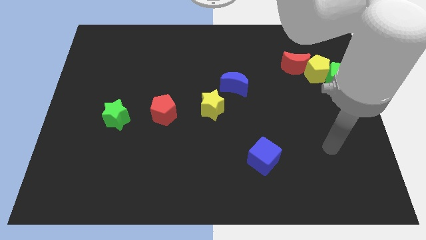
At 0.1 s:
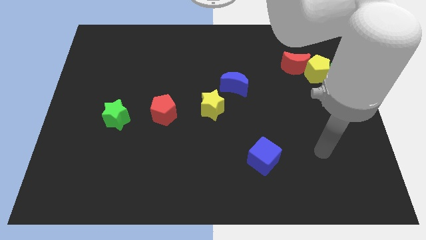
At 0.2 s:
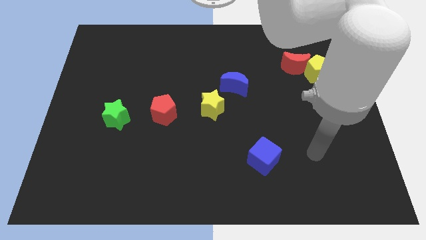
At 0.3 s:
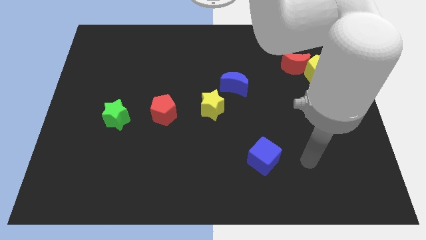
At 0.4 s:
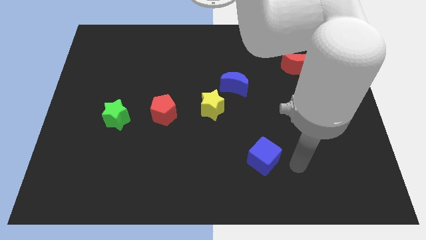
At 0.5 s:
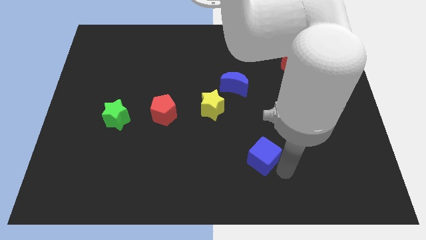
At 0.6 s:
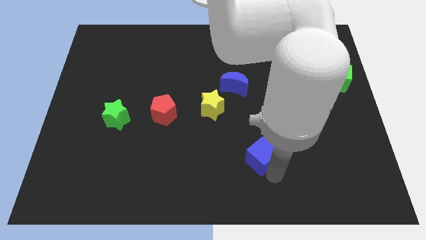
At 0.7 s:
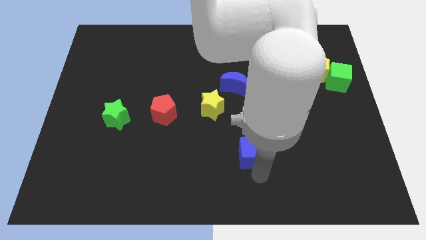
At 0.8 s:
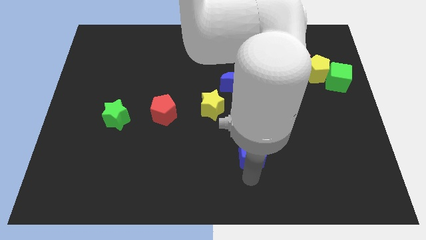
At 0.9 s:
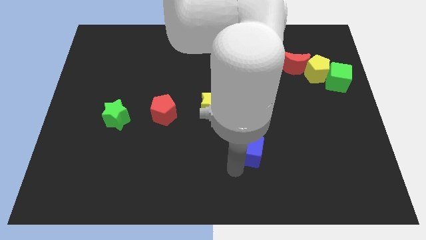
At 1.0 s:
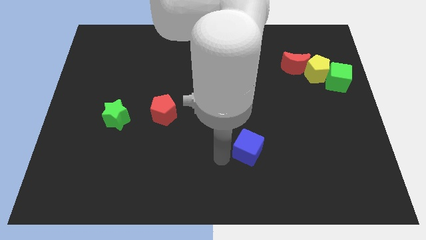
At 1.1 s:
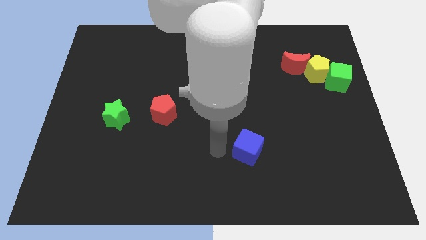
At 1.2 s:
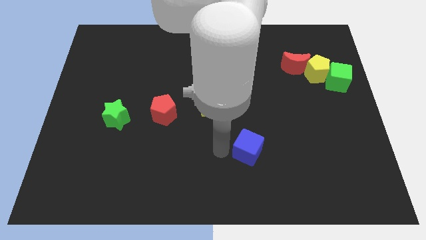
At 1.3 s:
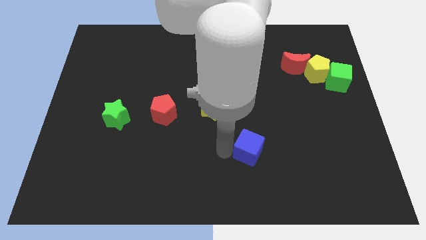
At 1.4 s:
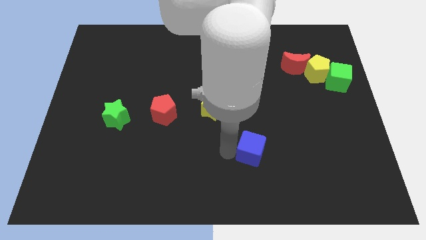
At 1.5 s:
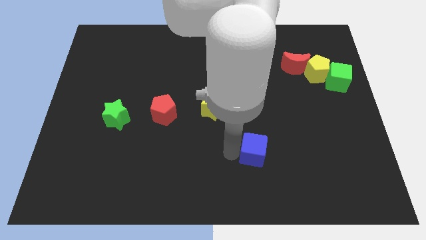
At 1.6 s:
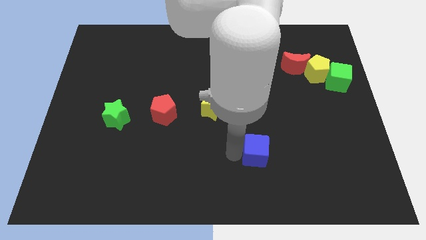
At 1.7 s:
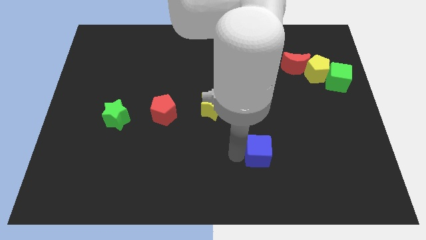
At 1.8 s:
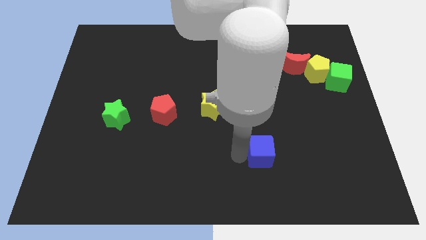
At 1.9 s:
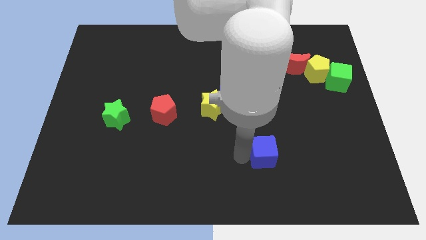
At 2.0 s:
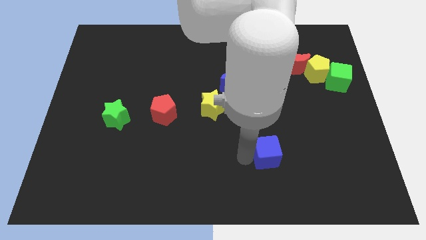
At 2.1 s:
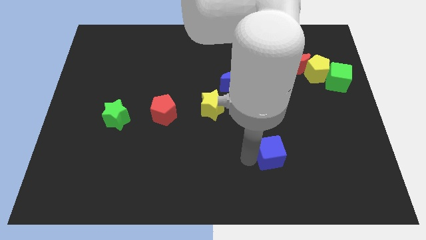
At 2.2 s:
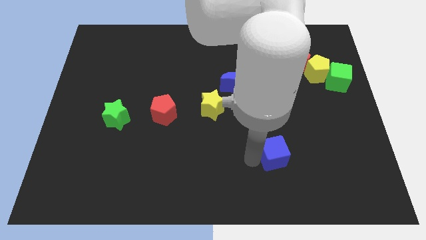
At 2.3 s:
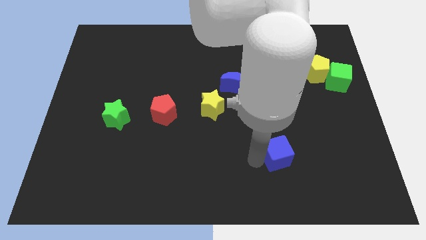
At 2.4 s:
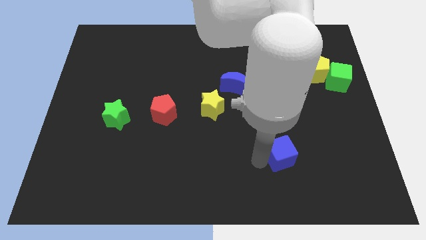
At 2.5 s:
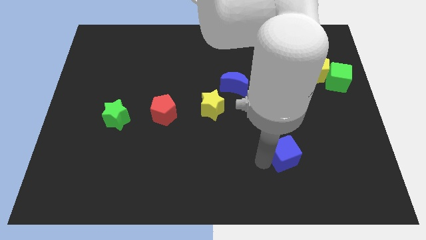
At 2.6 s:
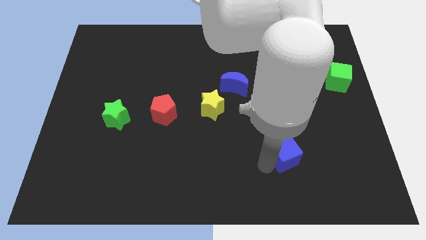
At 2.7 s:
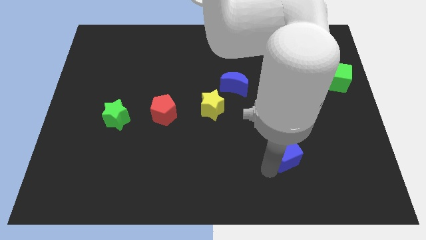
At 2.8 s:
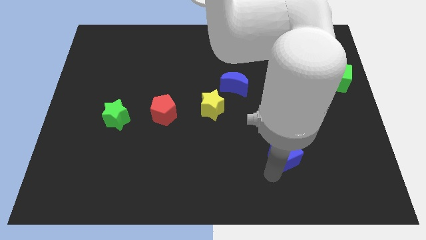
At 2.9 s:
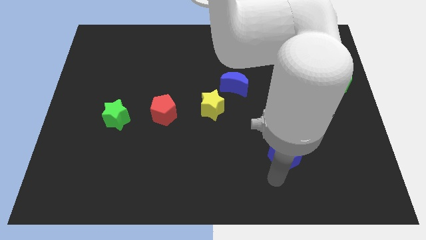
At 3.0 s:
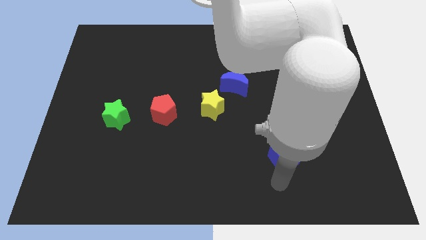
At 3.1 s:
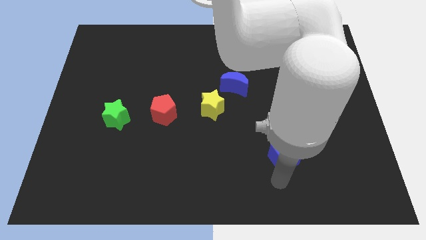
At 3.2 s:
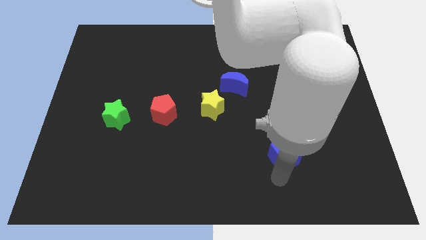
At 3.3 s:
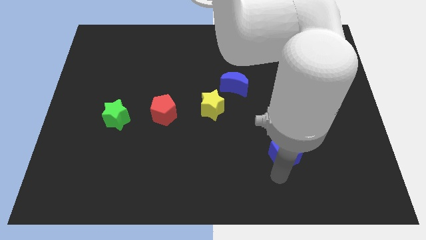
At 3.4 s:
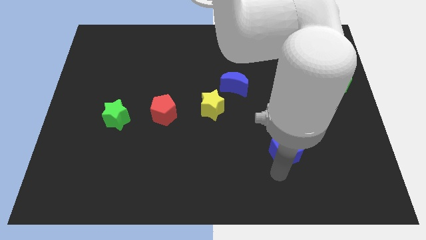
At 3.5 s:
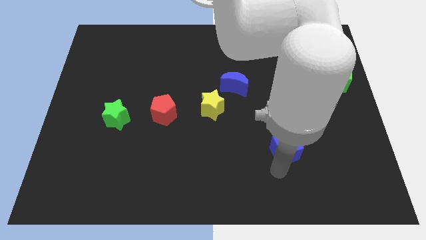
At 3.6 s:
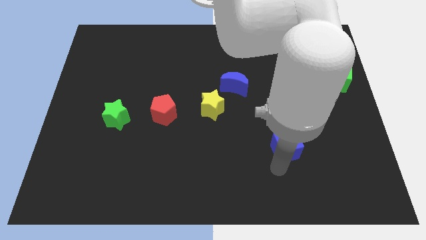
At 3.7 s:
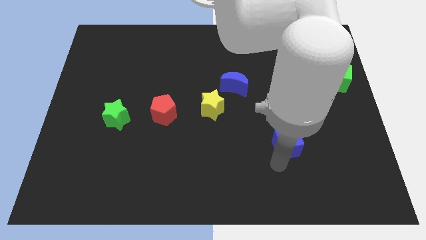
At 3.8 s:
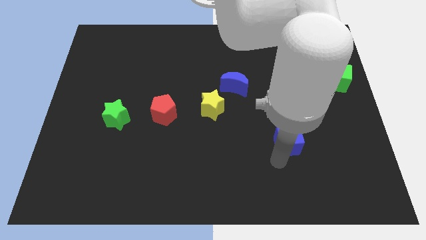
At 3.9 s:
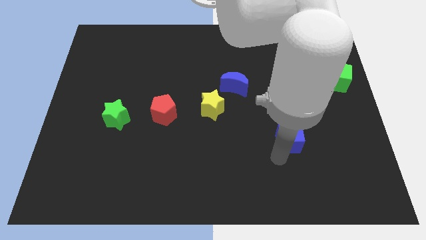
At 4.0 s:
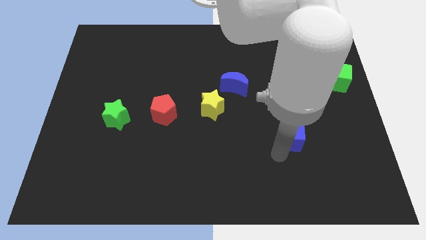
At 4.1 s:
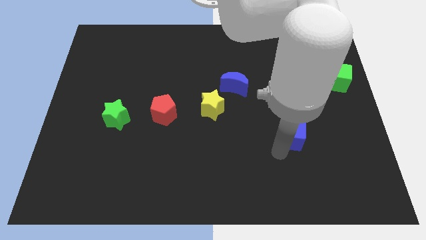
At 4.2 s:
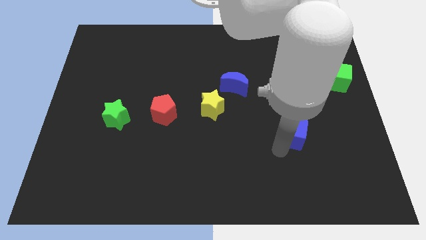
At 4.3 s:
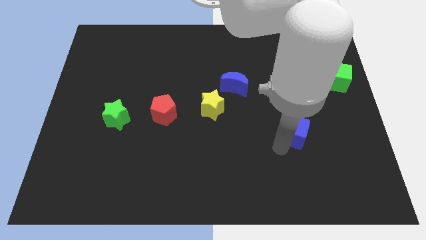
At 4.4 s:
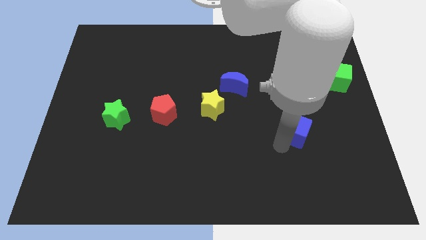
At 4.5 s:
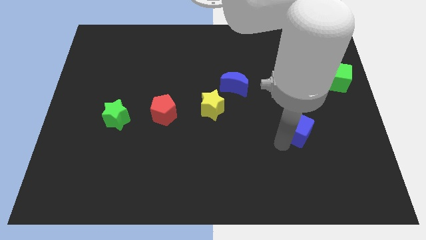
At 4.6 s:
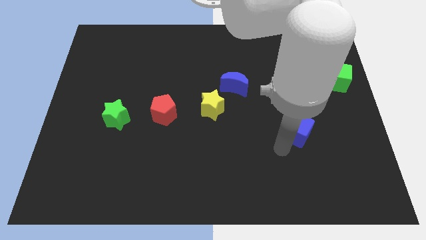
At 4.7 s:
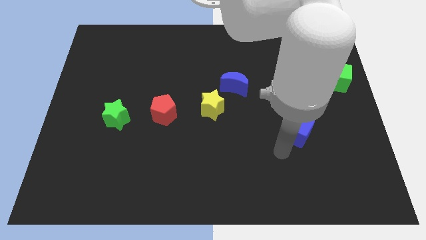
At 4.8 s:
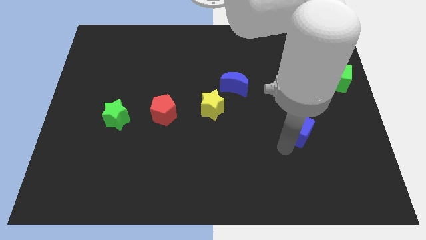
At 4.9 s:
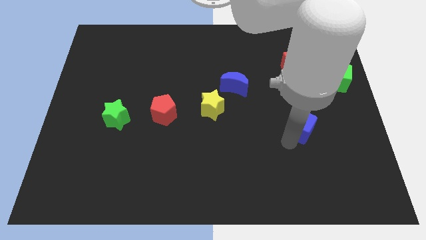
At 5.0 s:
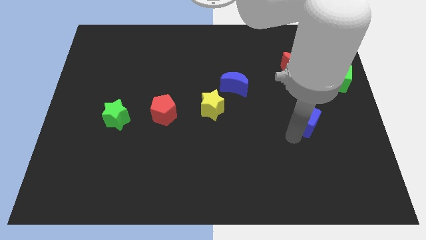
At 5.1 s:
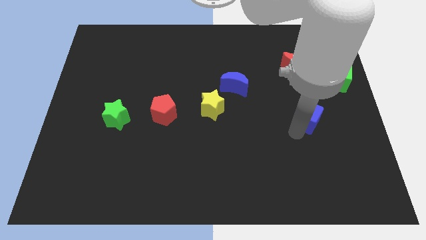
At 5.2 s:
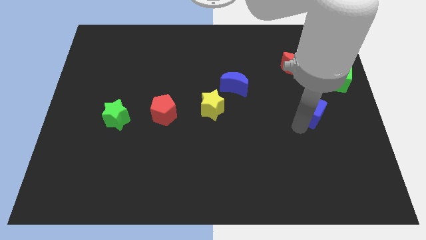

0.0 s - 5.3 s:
push the blue cube to the bottom of the yellow pentagon

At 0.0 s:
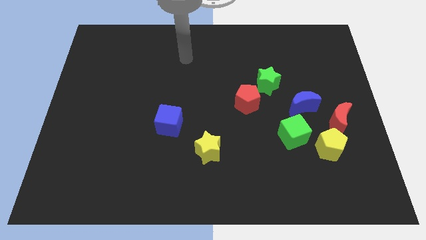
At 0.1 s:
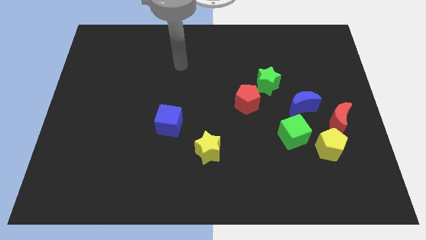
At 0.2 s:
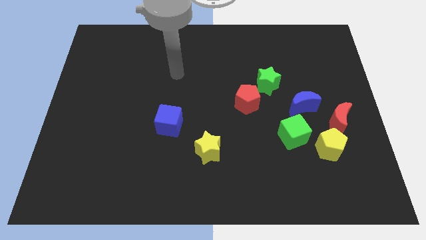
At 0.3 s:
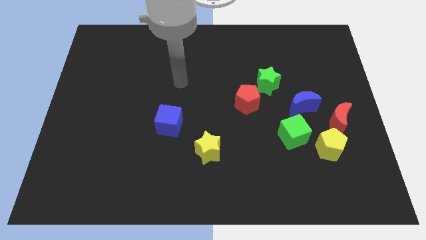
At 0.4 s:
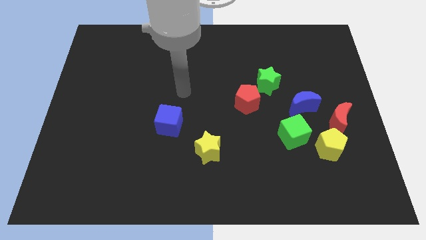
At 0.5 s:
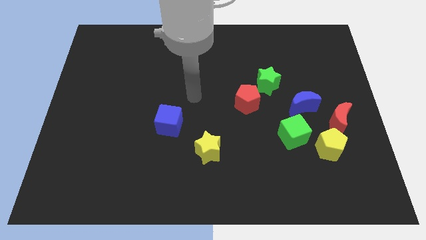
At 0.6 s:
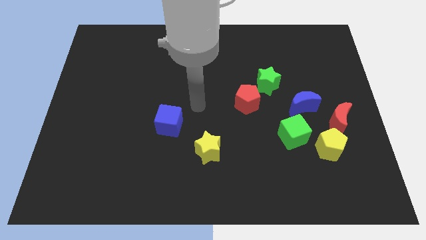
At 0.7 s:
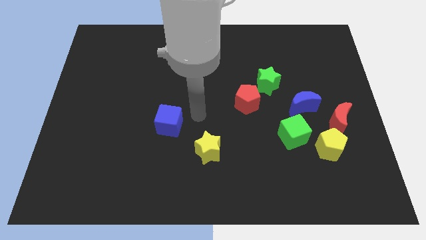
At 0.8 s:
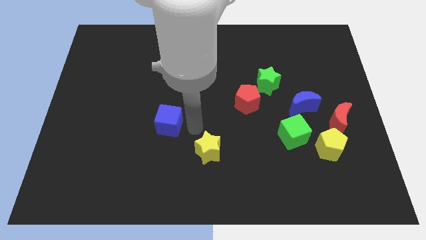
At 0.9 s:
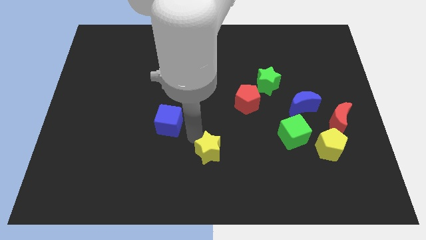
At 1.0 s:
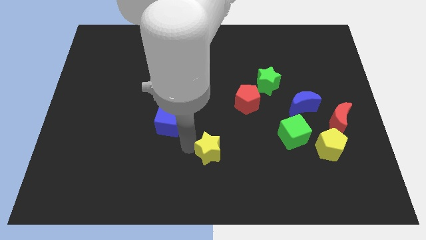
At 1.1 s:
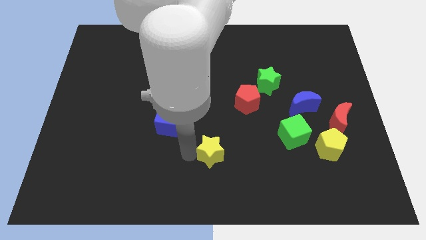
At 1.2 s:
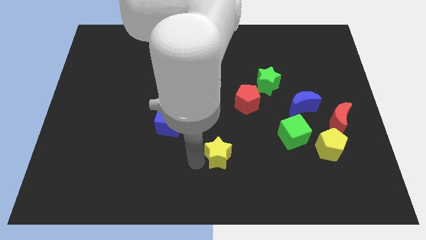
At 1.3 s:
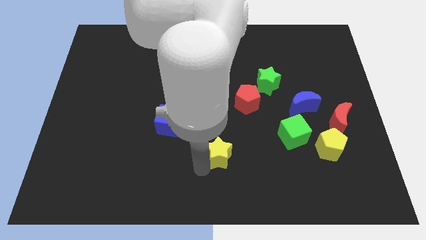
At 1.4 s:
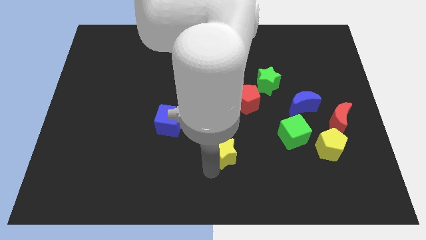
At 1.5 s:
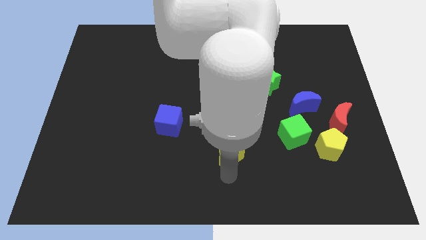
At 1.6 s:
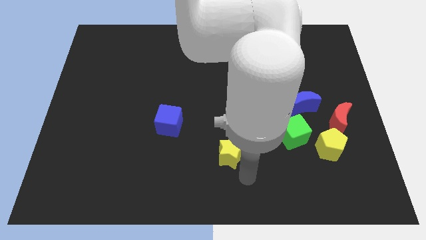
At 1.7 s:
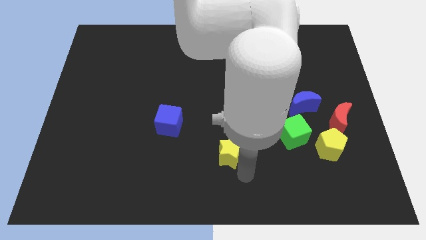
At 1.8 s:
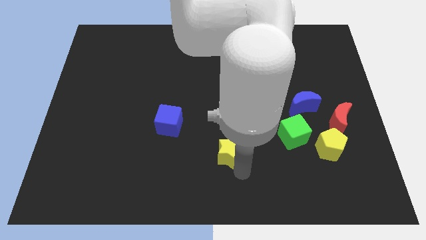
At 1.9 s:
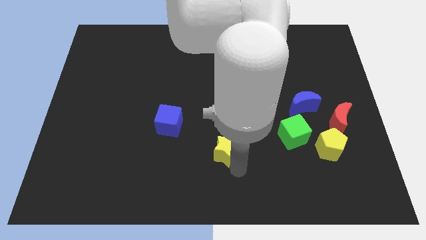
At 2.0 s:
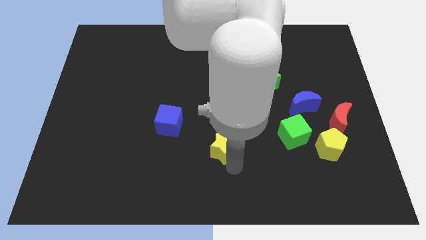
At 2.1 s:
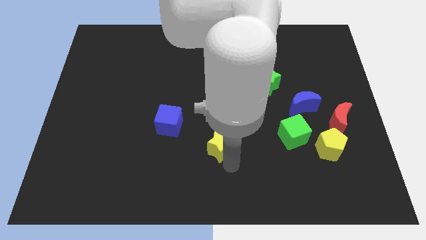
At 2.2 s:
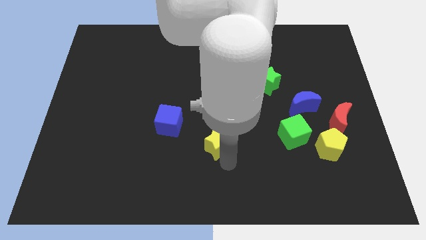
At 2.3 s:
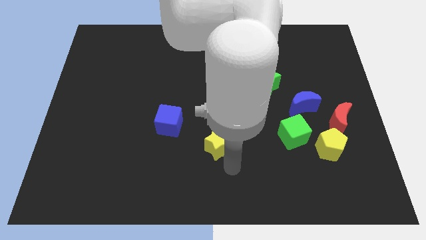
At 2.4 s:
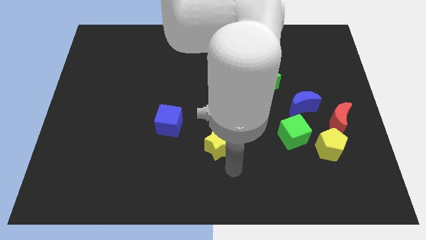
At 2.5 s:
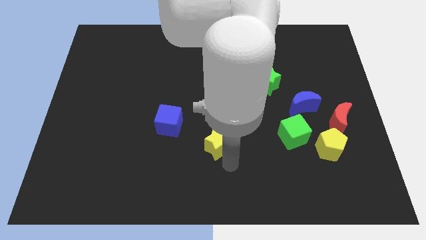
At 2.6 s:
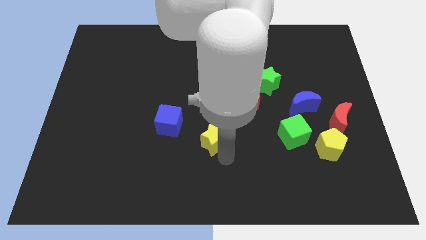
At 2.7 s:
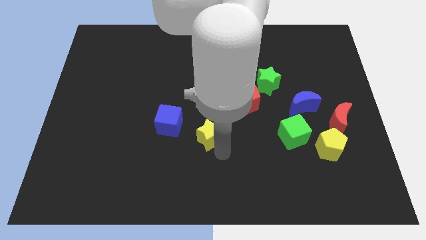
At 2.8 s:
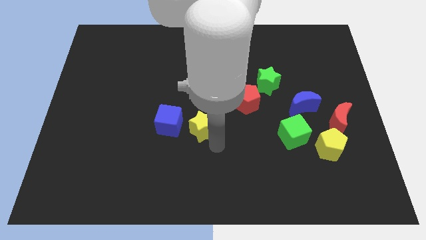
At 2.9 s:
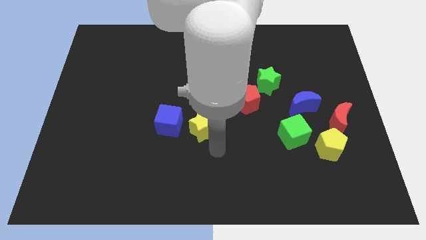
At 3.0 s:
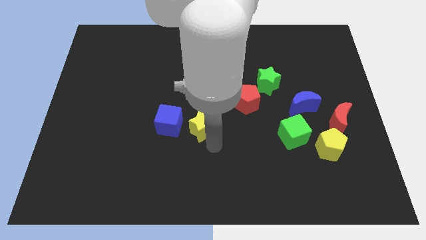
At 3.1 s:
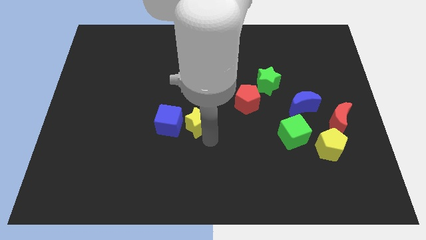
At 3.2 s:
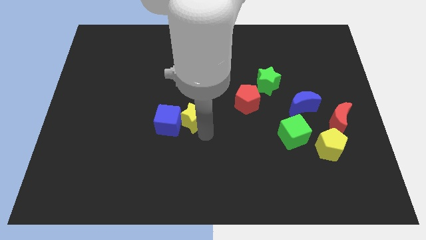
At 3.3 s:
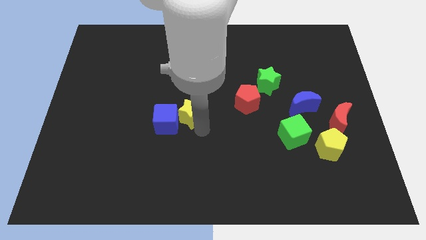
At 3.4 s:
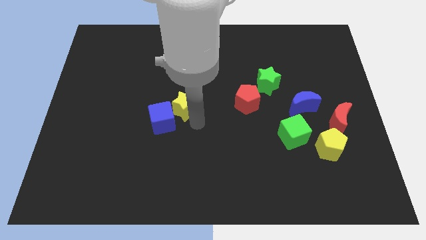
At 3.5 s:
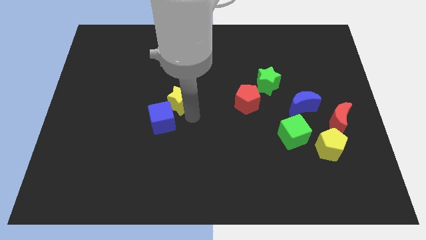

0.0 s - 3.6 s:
push the yellow star to the top side of the blue cube
